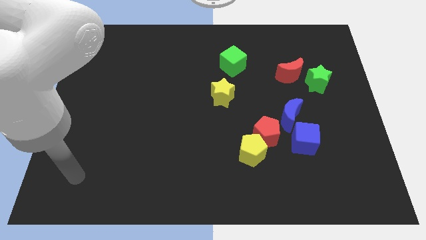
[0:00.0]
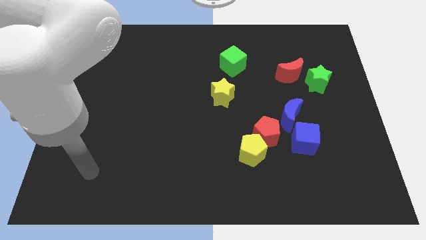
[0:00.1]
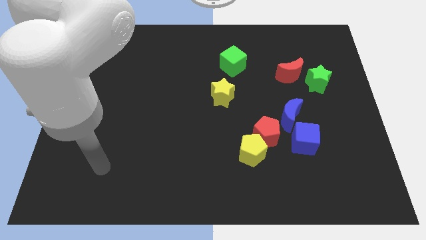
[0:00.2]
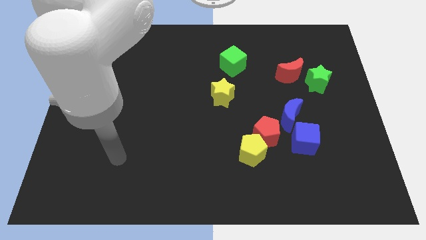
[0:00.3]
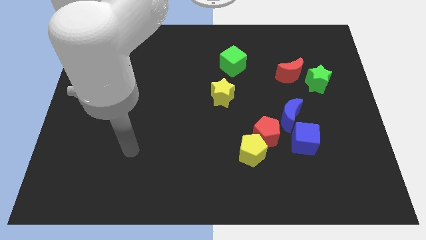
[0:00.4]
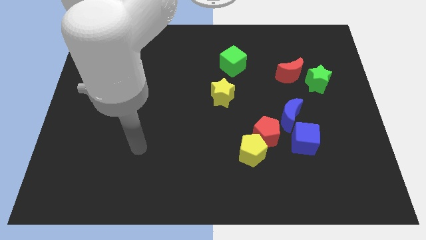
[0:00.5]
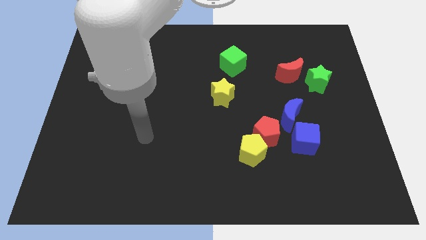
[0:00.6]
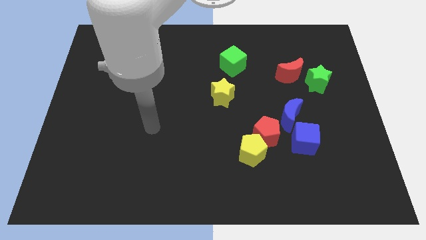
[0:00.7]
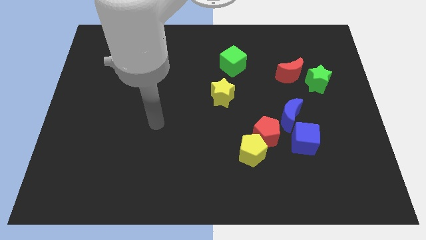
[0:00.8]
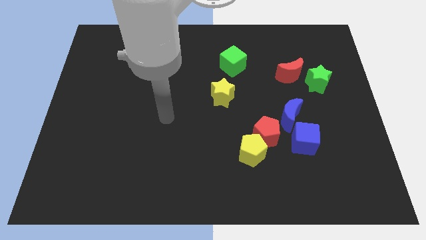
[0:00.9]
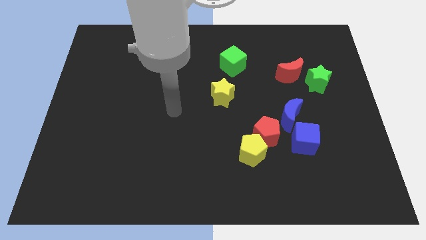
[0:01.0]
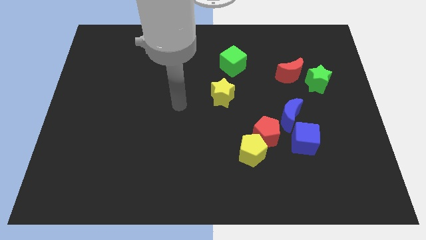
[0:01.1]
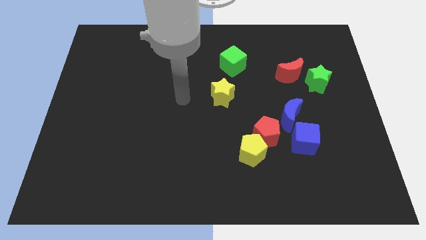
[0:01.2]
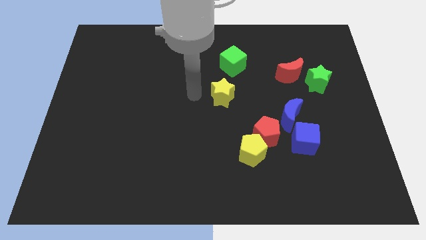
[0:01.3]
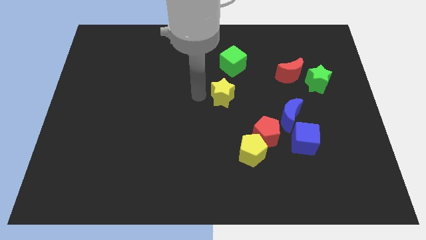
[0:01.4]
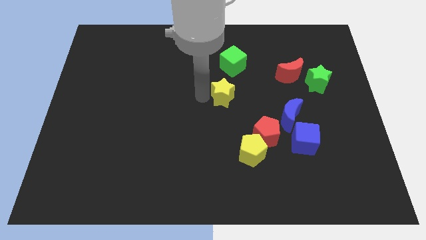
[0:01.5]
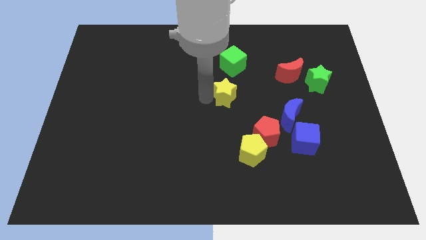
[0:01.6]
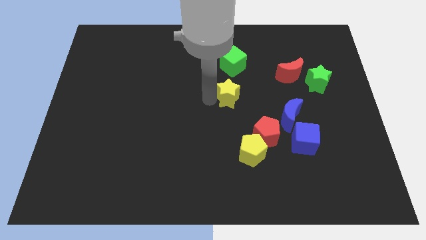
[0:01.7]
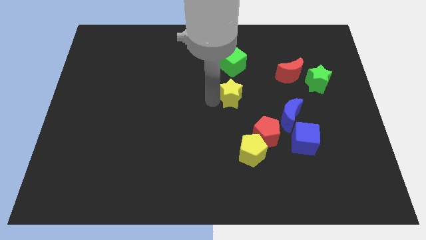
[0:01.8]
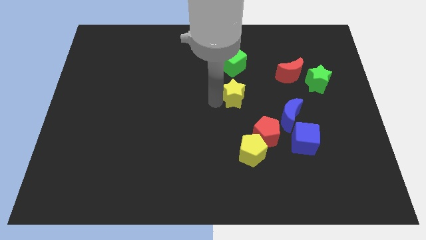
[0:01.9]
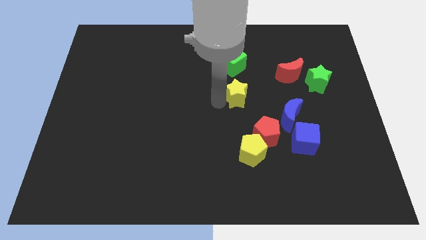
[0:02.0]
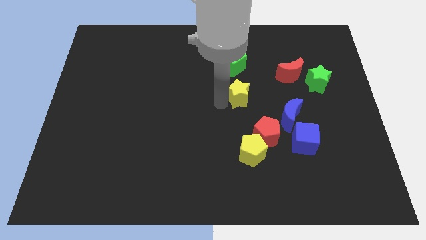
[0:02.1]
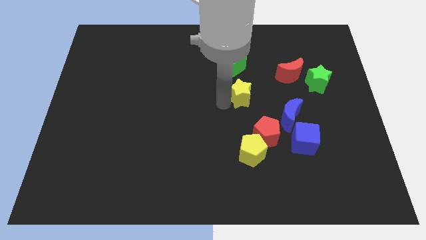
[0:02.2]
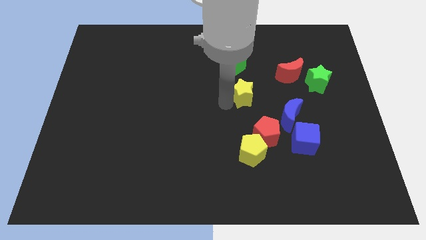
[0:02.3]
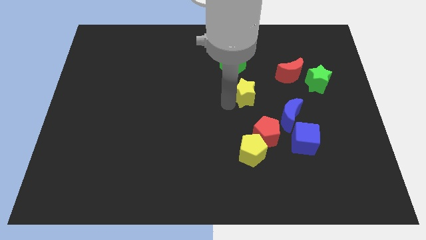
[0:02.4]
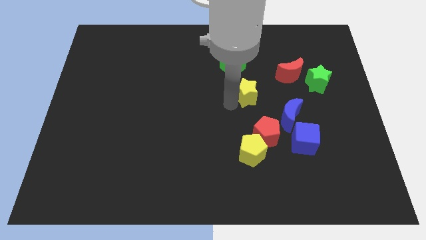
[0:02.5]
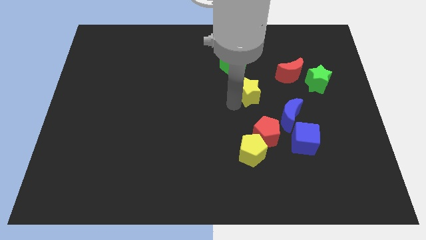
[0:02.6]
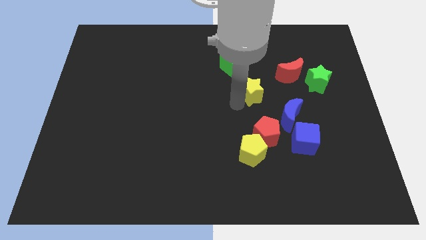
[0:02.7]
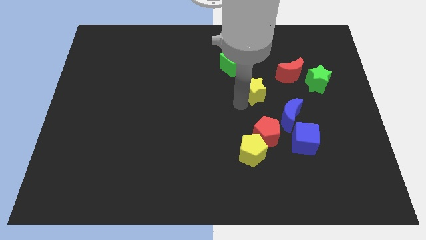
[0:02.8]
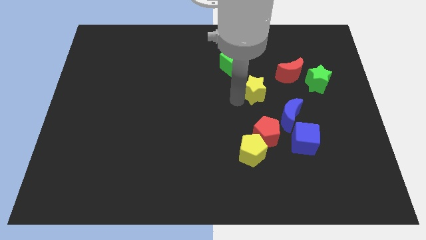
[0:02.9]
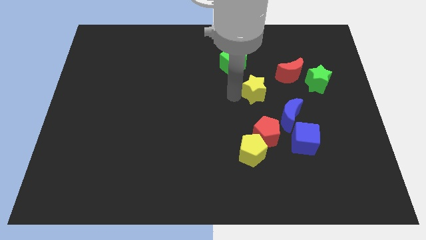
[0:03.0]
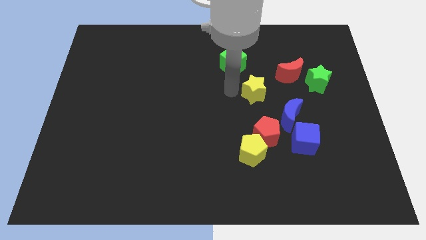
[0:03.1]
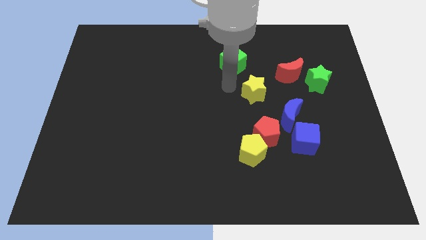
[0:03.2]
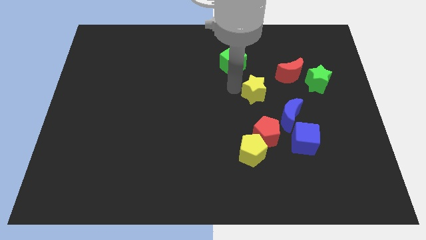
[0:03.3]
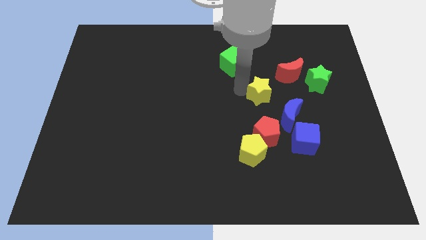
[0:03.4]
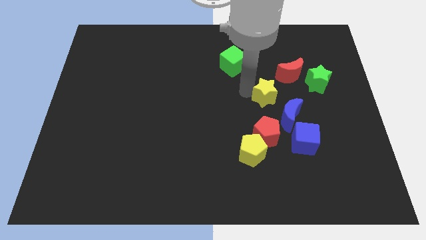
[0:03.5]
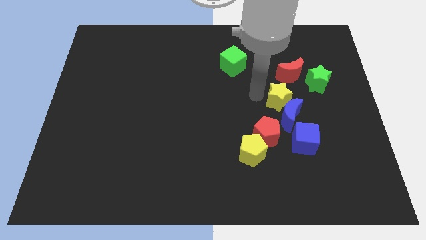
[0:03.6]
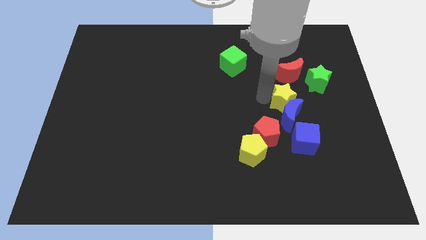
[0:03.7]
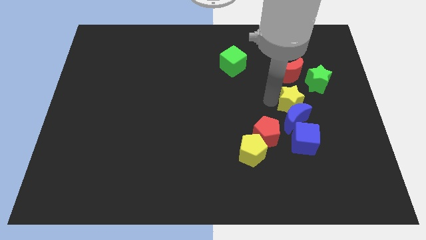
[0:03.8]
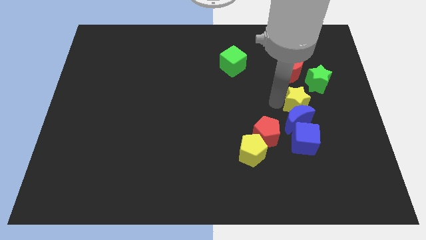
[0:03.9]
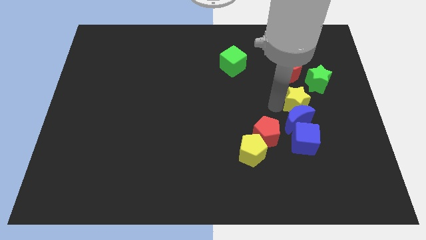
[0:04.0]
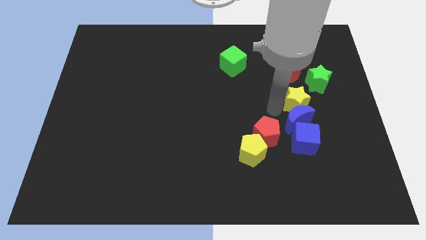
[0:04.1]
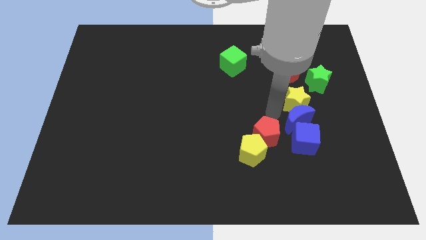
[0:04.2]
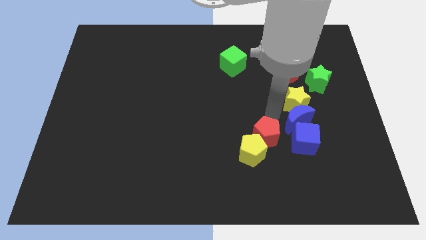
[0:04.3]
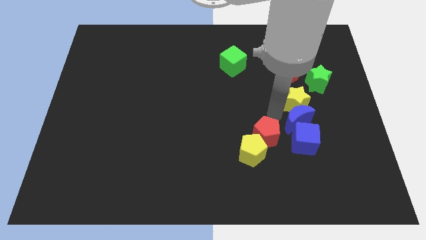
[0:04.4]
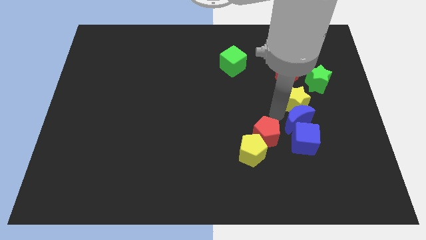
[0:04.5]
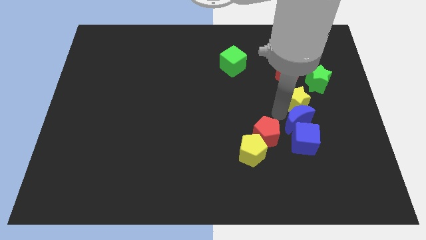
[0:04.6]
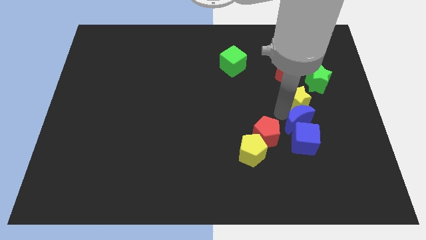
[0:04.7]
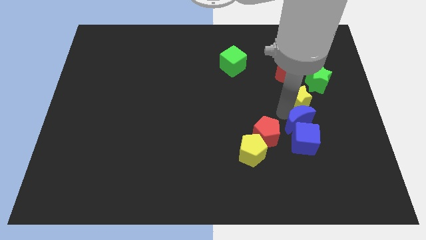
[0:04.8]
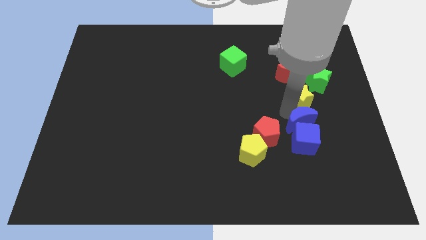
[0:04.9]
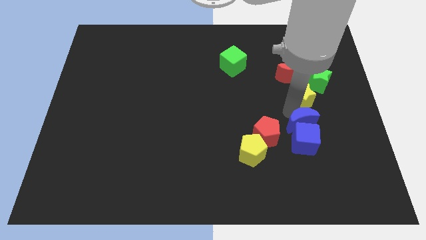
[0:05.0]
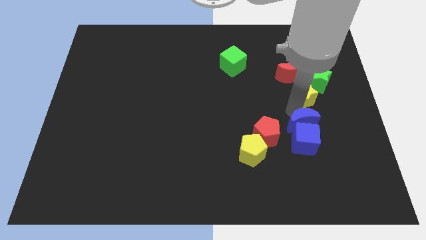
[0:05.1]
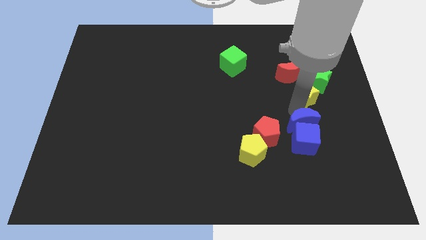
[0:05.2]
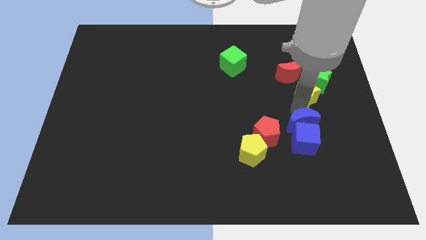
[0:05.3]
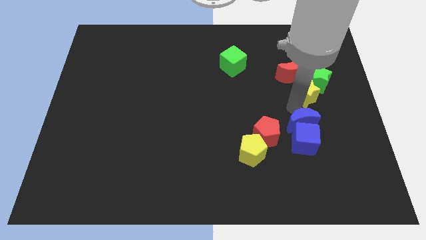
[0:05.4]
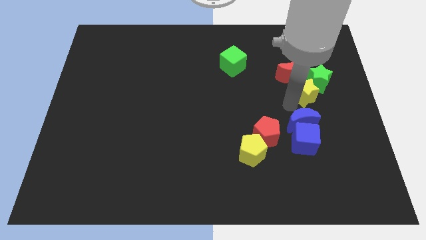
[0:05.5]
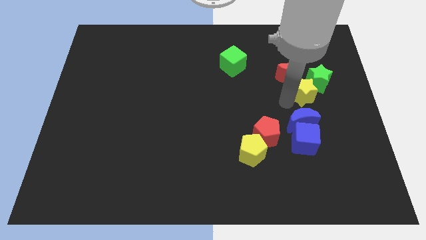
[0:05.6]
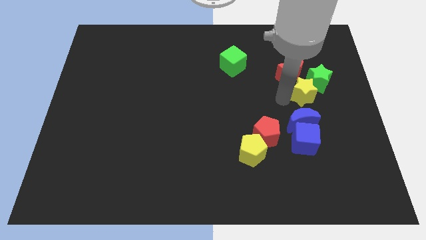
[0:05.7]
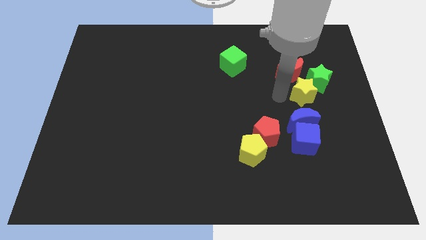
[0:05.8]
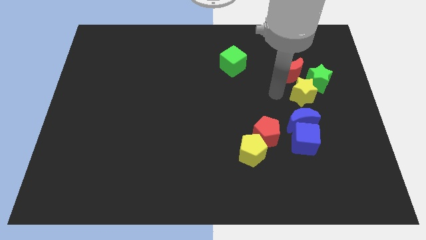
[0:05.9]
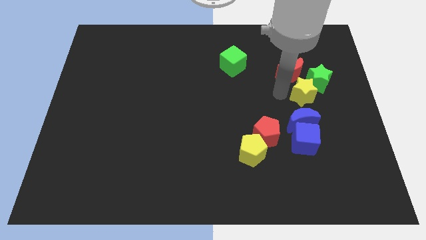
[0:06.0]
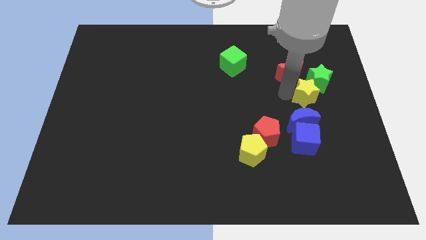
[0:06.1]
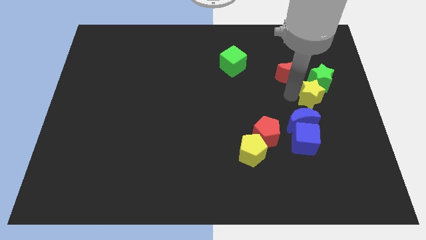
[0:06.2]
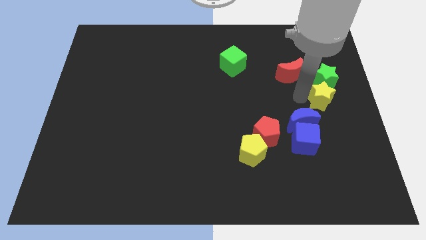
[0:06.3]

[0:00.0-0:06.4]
push the yellow star to the right side
